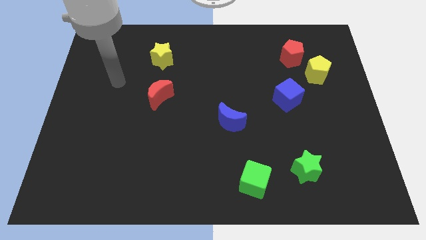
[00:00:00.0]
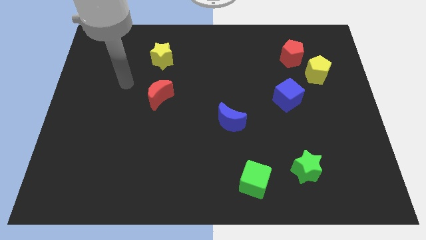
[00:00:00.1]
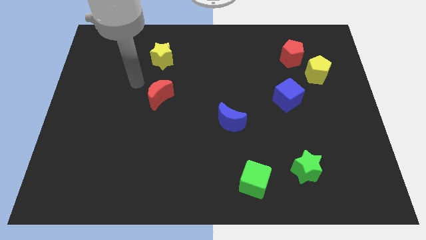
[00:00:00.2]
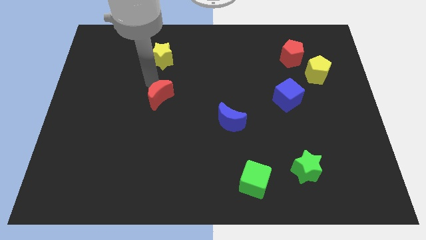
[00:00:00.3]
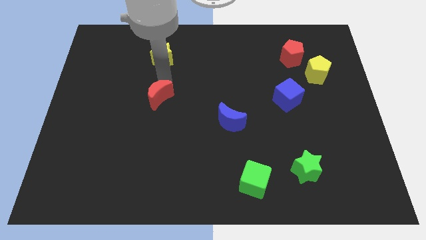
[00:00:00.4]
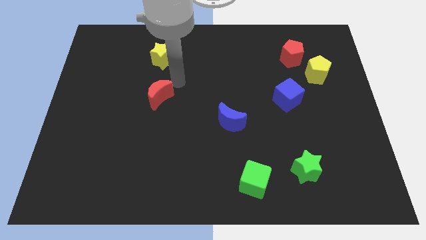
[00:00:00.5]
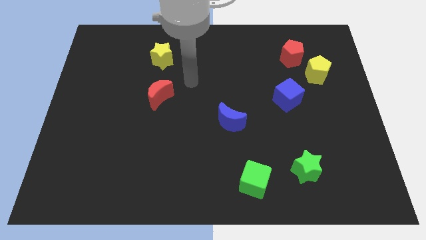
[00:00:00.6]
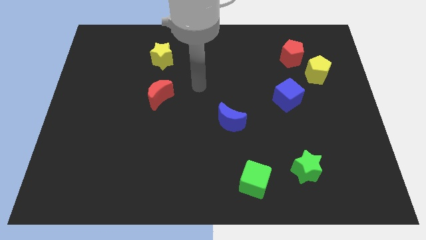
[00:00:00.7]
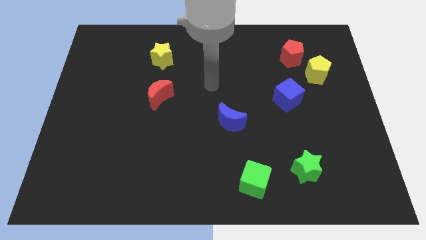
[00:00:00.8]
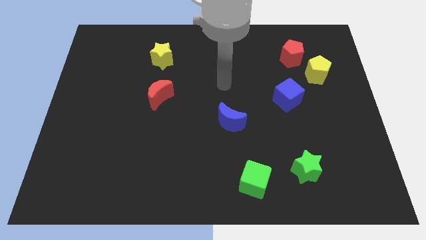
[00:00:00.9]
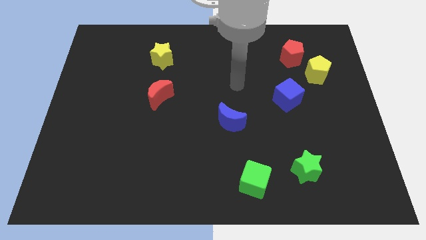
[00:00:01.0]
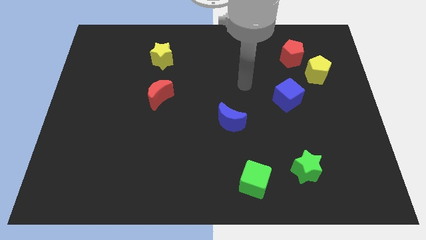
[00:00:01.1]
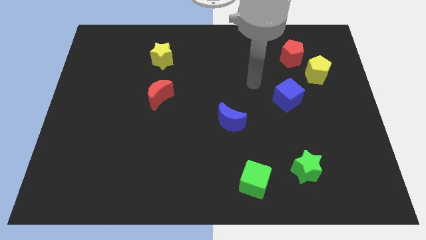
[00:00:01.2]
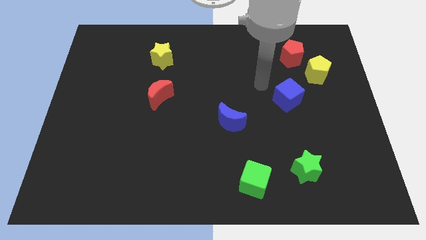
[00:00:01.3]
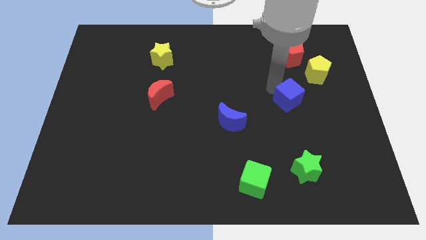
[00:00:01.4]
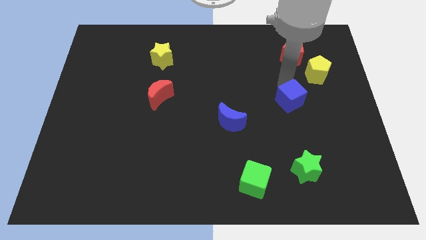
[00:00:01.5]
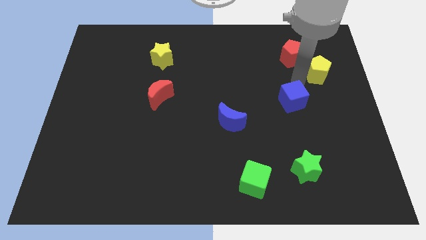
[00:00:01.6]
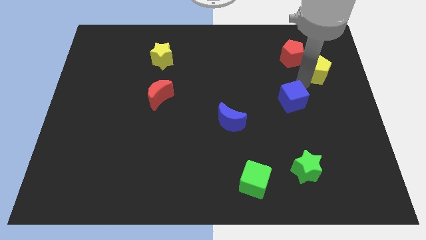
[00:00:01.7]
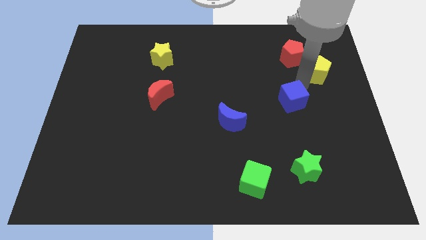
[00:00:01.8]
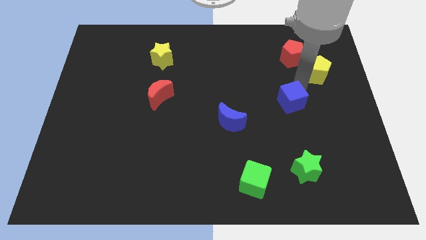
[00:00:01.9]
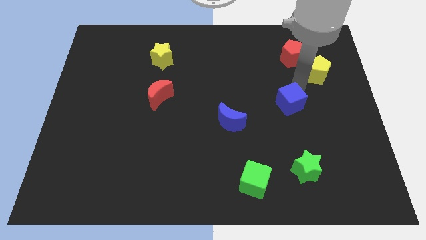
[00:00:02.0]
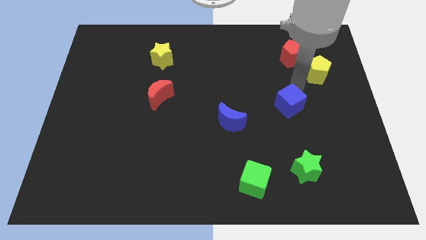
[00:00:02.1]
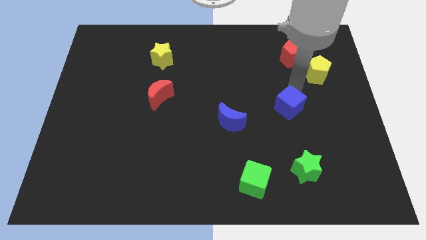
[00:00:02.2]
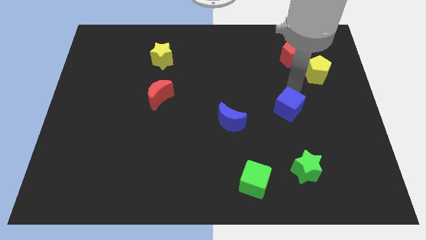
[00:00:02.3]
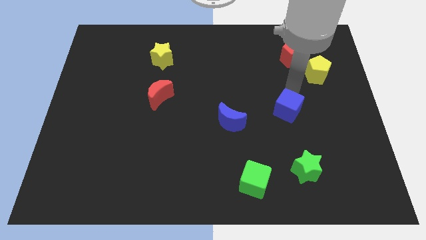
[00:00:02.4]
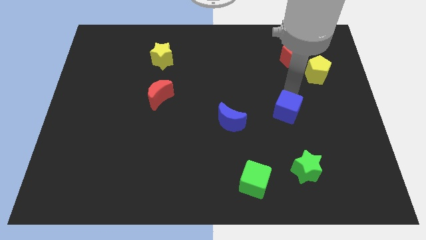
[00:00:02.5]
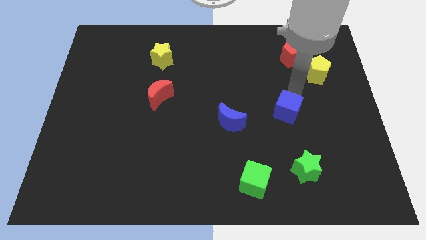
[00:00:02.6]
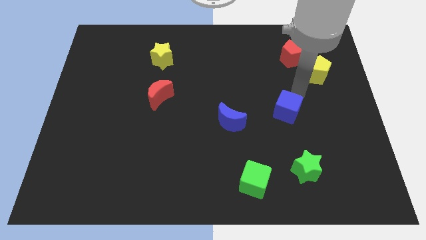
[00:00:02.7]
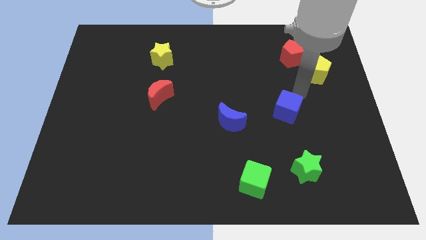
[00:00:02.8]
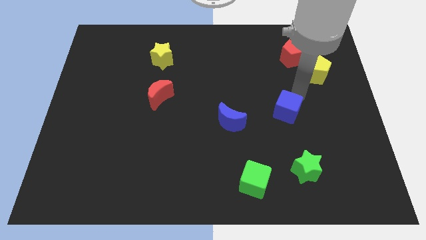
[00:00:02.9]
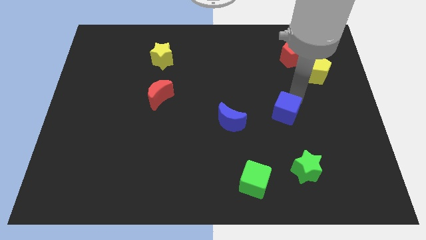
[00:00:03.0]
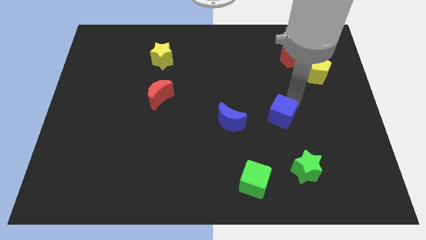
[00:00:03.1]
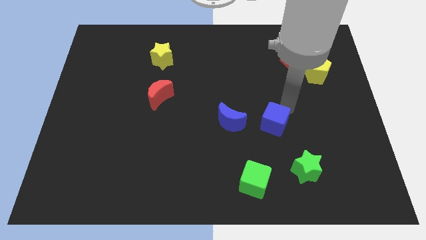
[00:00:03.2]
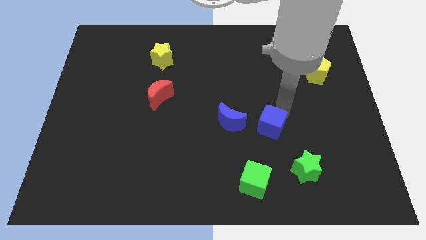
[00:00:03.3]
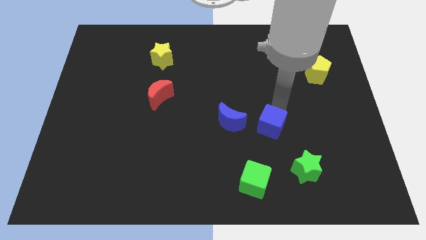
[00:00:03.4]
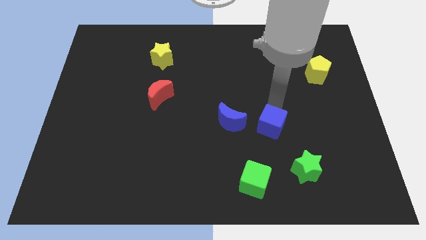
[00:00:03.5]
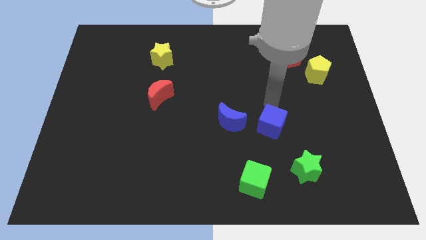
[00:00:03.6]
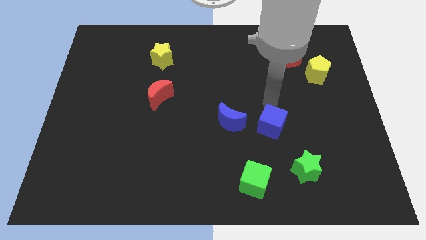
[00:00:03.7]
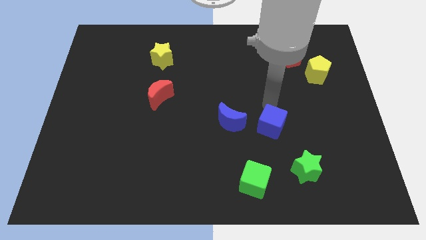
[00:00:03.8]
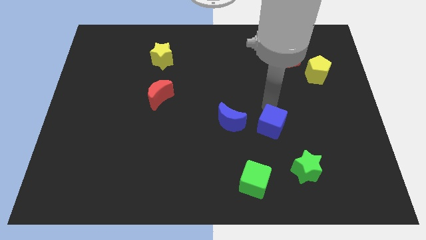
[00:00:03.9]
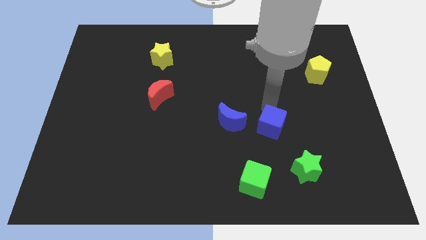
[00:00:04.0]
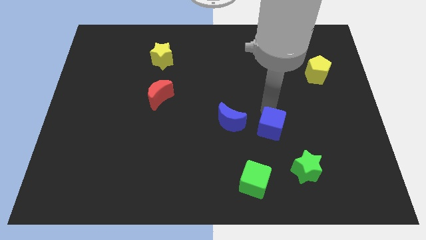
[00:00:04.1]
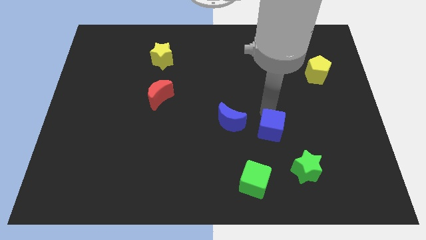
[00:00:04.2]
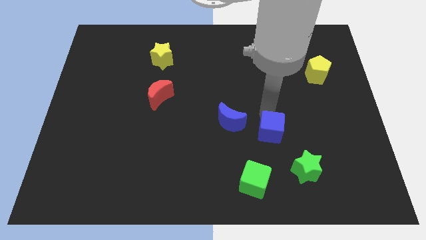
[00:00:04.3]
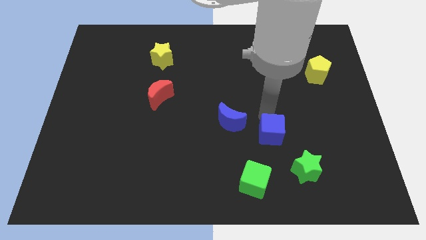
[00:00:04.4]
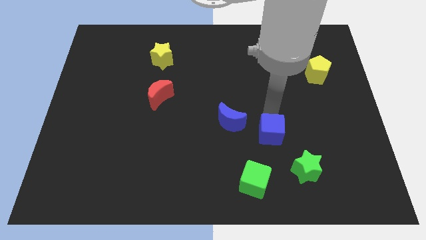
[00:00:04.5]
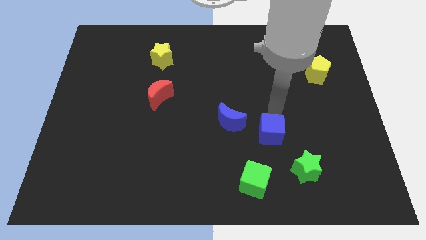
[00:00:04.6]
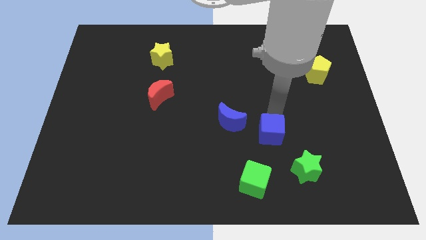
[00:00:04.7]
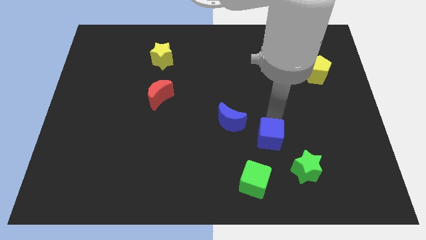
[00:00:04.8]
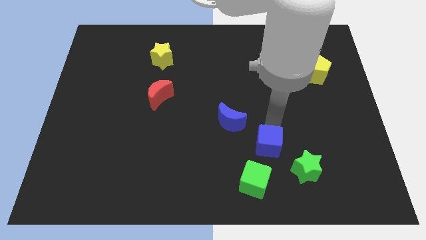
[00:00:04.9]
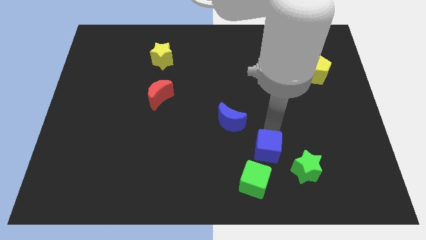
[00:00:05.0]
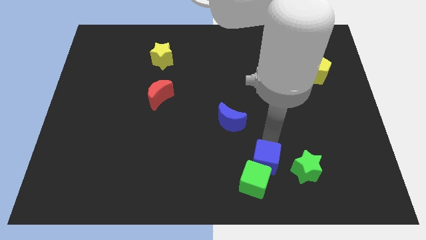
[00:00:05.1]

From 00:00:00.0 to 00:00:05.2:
move the blue cube next to the green cube

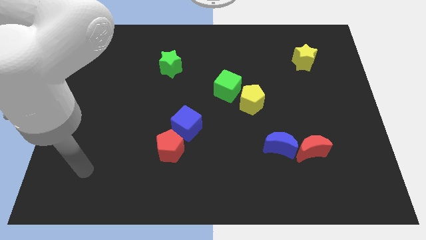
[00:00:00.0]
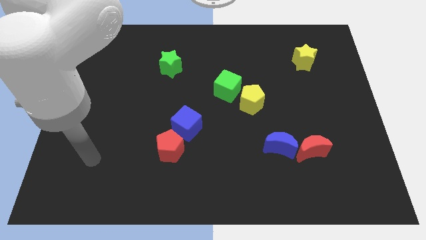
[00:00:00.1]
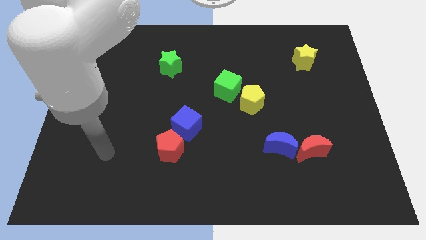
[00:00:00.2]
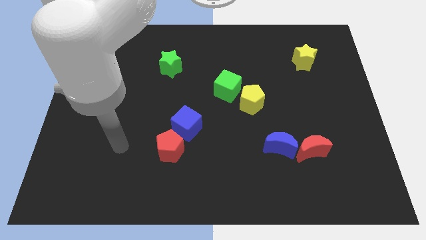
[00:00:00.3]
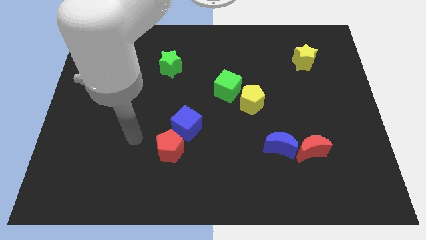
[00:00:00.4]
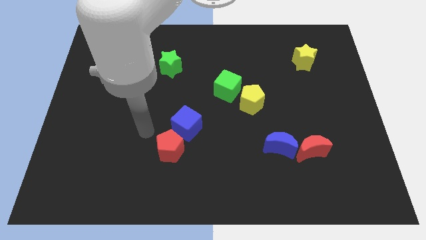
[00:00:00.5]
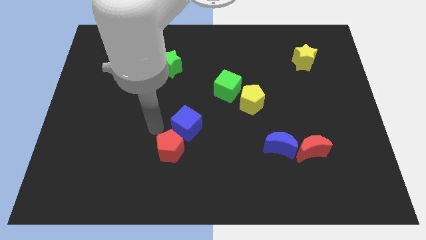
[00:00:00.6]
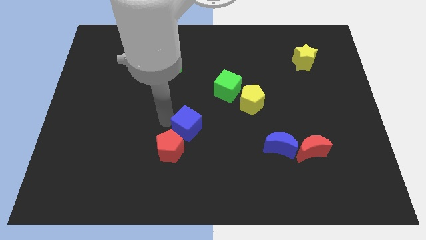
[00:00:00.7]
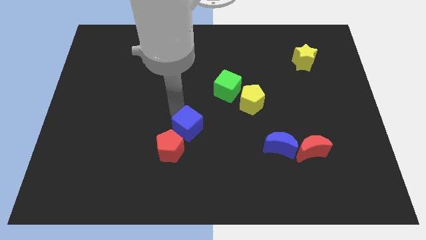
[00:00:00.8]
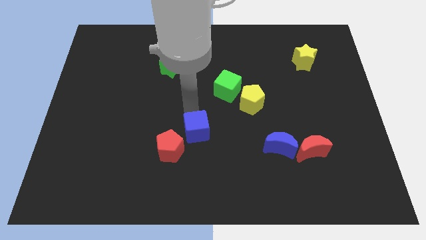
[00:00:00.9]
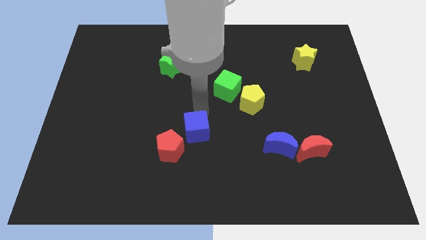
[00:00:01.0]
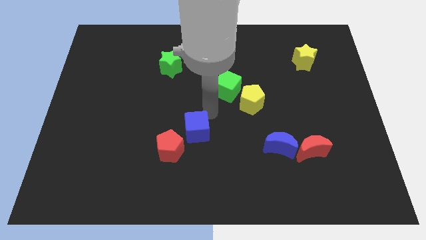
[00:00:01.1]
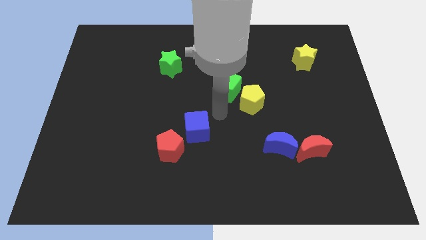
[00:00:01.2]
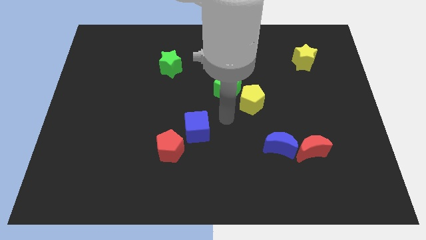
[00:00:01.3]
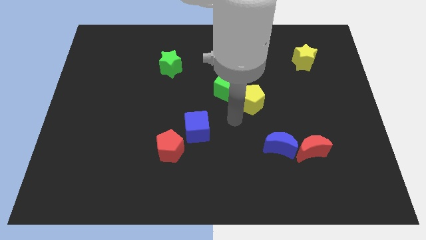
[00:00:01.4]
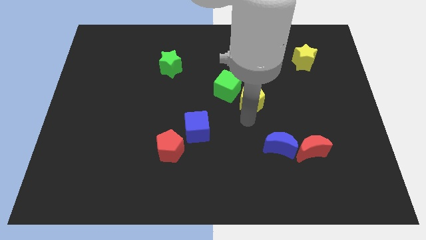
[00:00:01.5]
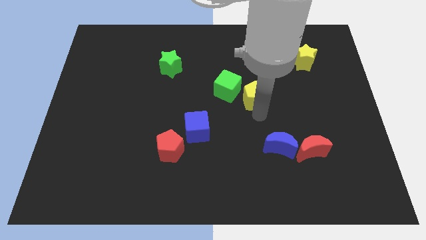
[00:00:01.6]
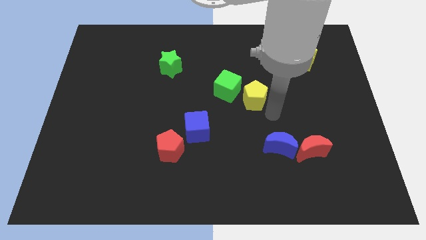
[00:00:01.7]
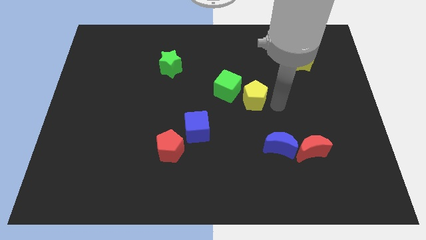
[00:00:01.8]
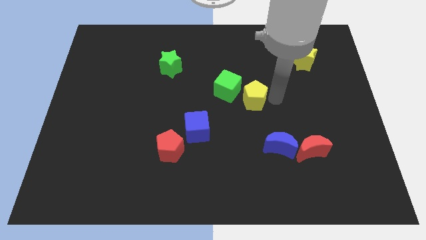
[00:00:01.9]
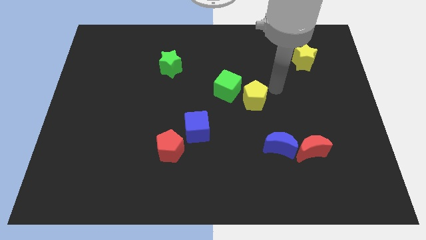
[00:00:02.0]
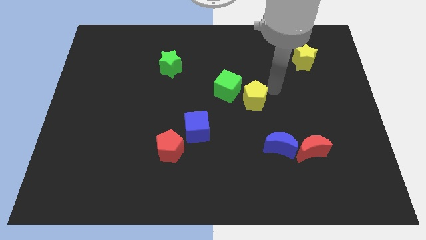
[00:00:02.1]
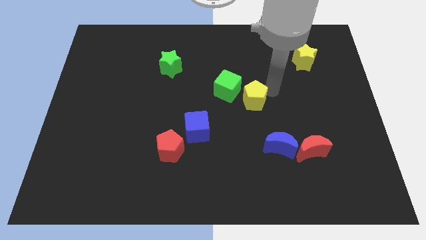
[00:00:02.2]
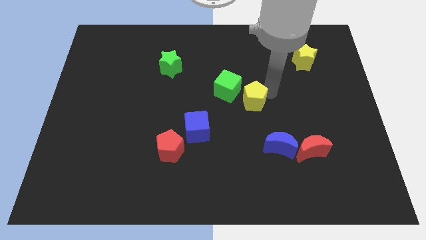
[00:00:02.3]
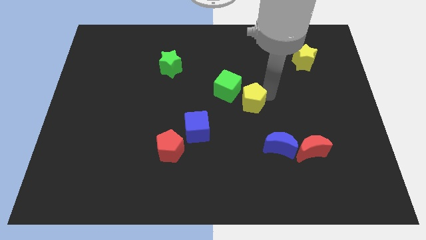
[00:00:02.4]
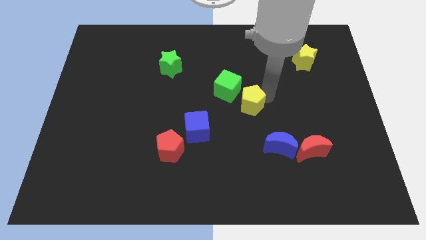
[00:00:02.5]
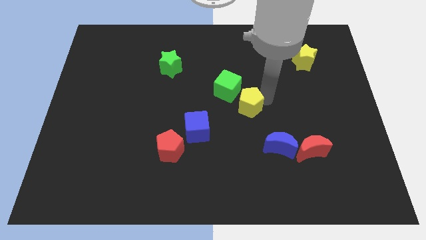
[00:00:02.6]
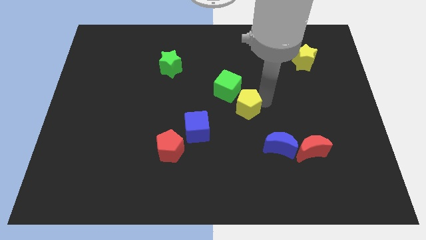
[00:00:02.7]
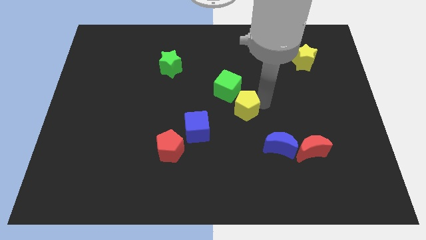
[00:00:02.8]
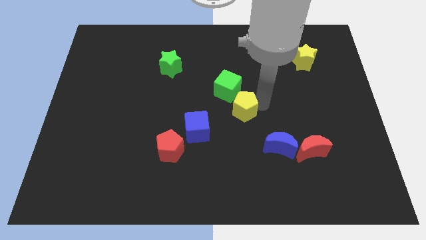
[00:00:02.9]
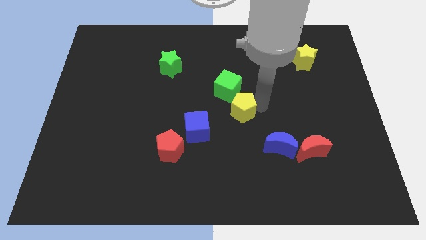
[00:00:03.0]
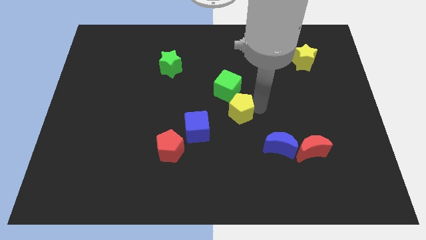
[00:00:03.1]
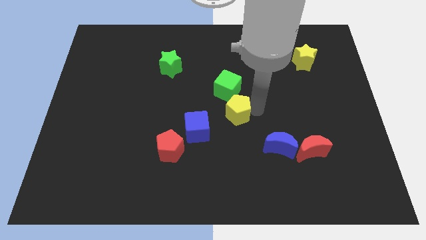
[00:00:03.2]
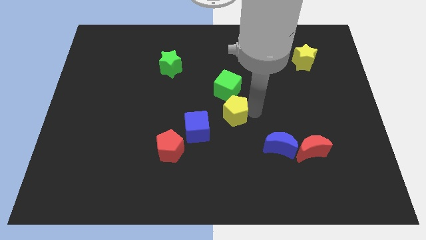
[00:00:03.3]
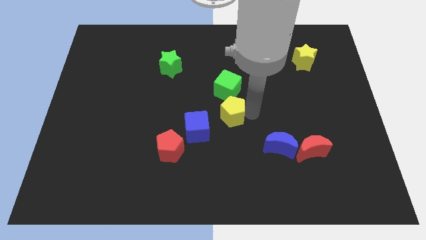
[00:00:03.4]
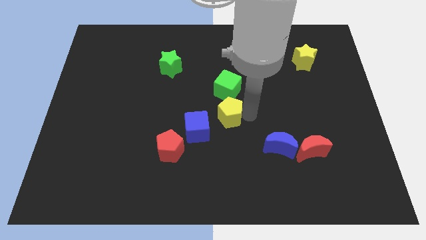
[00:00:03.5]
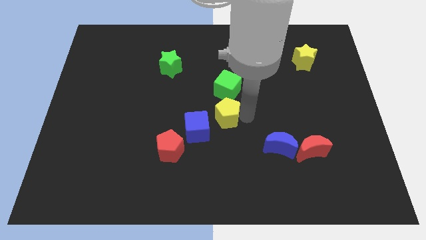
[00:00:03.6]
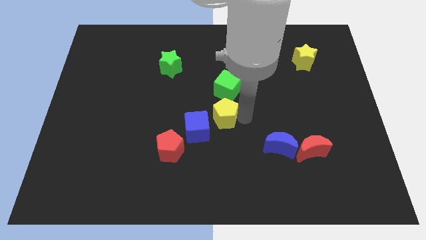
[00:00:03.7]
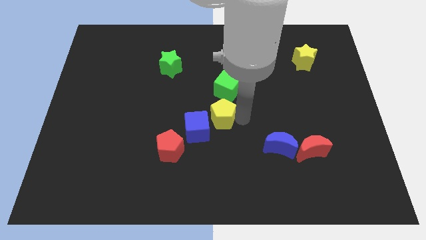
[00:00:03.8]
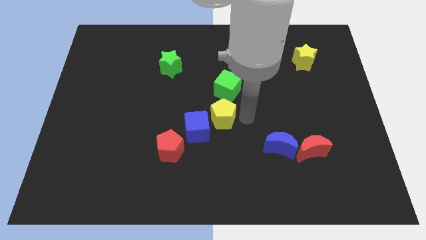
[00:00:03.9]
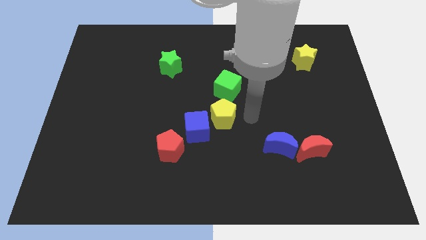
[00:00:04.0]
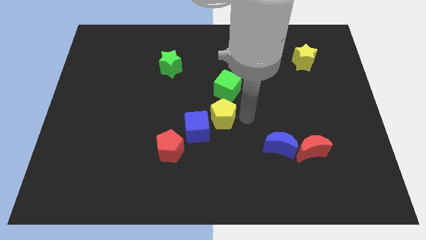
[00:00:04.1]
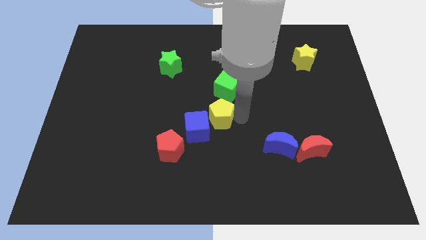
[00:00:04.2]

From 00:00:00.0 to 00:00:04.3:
push the yellow pentagon close to the blue cube
